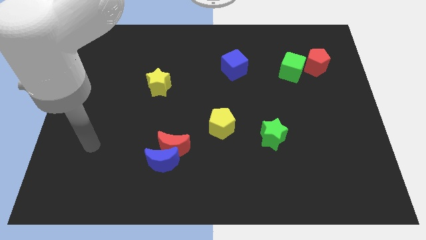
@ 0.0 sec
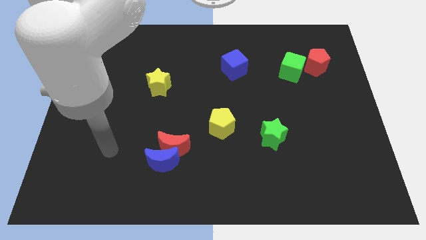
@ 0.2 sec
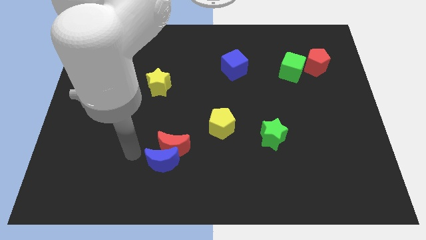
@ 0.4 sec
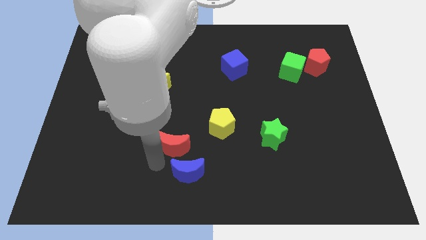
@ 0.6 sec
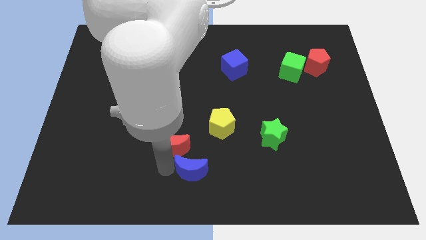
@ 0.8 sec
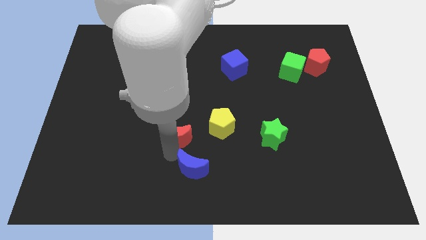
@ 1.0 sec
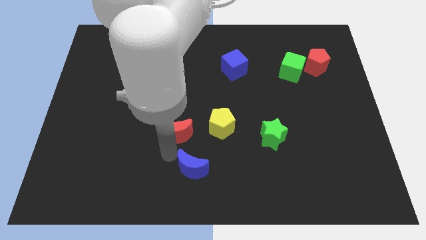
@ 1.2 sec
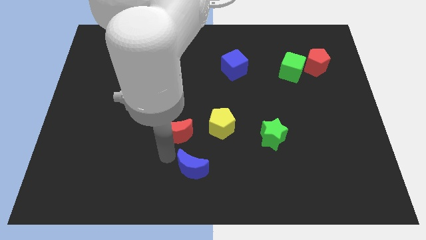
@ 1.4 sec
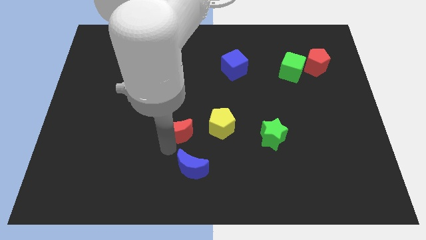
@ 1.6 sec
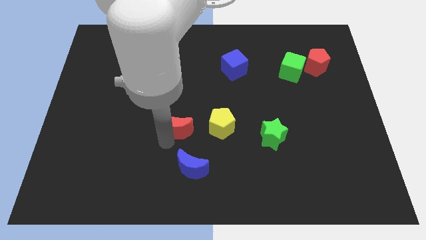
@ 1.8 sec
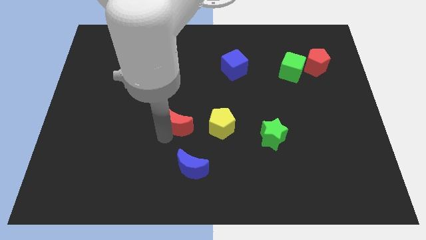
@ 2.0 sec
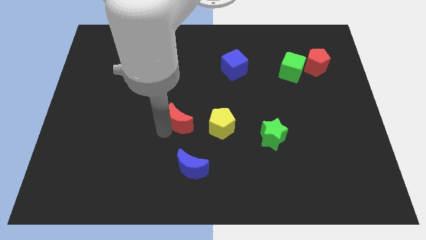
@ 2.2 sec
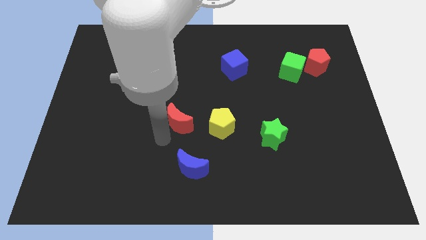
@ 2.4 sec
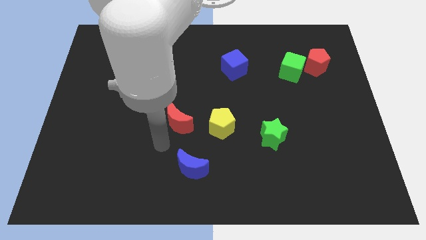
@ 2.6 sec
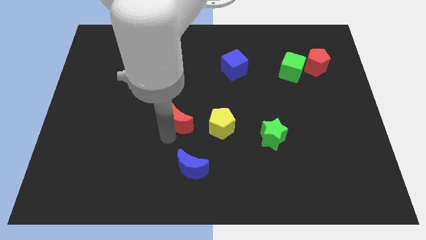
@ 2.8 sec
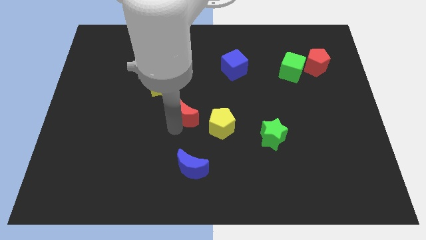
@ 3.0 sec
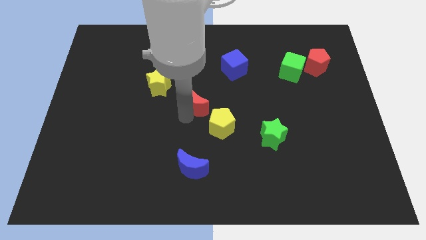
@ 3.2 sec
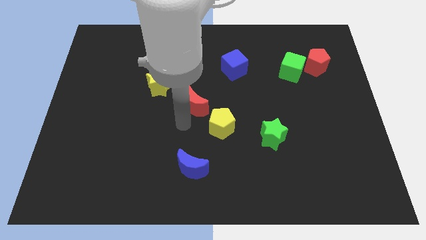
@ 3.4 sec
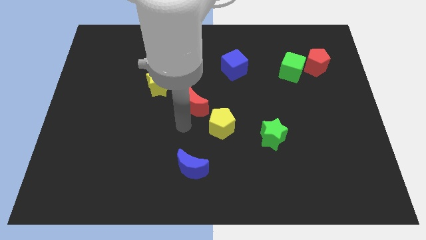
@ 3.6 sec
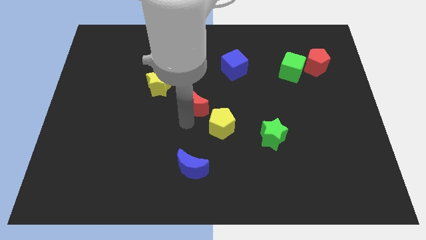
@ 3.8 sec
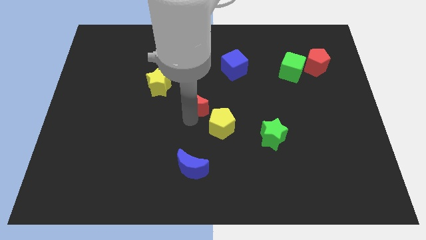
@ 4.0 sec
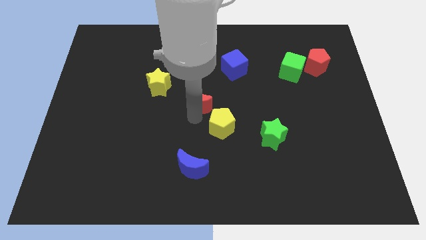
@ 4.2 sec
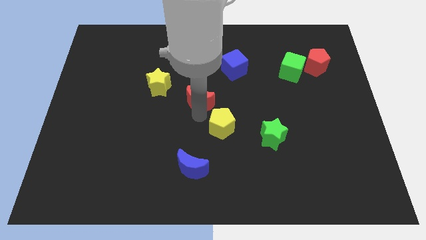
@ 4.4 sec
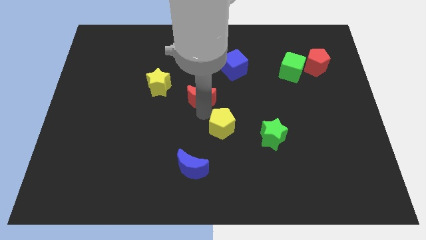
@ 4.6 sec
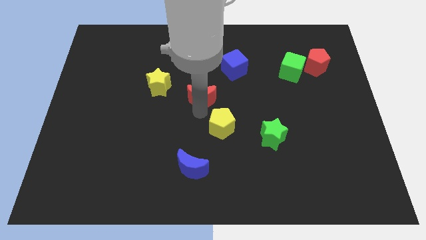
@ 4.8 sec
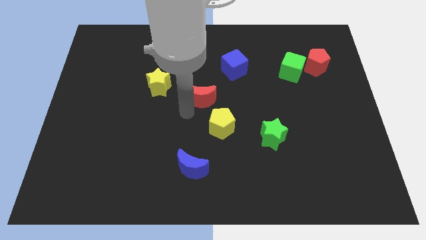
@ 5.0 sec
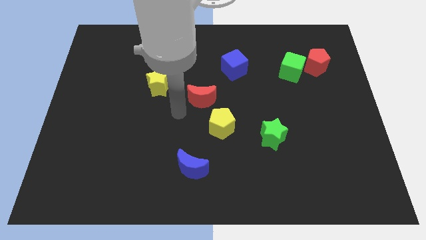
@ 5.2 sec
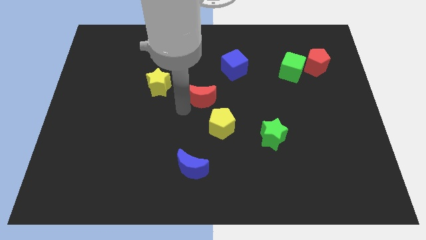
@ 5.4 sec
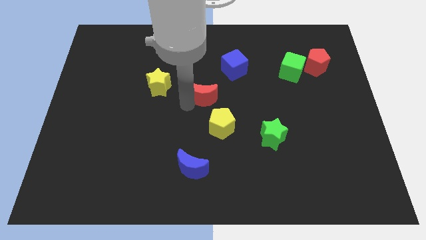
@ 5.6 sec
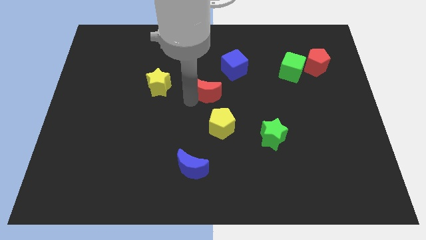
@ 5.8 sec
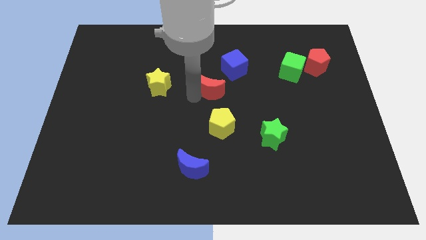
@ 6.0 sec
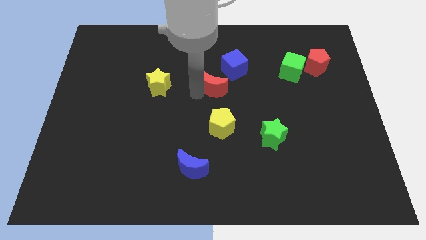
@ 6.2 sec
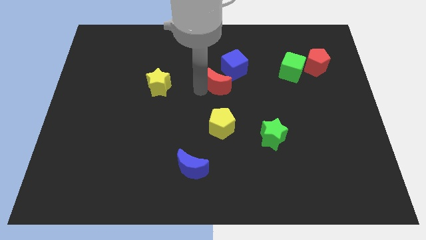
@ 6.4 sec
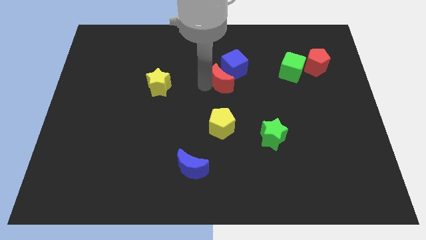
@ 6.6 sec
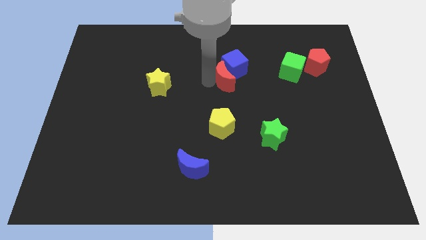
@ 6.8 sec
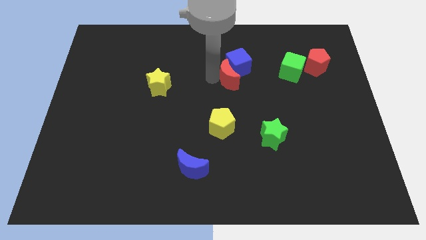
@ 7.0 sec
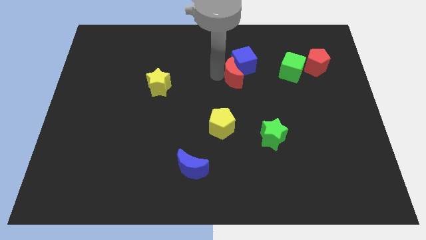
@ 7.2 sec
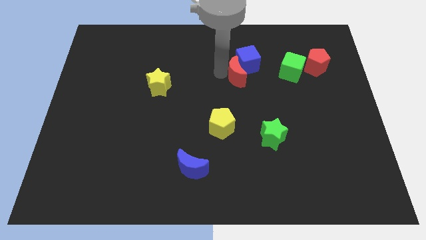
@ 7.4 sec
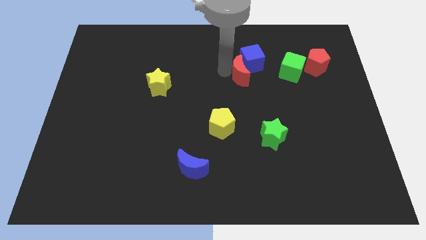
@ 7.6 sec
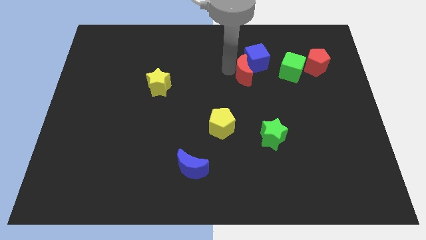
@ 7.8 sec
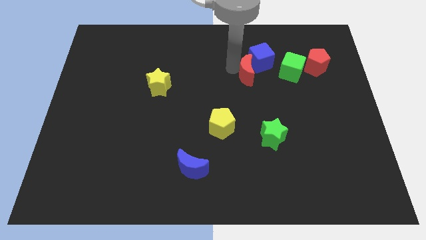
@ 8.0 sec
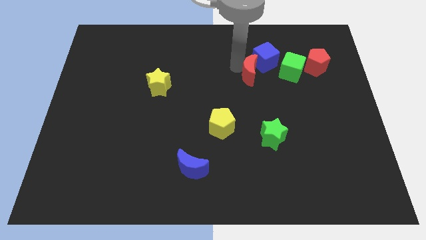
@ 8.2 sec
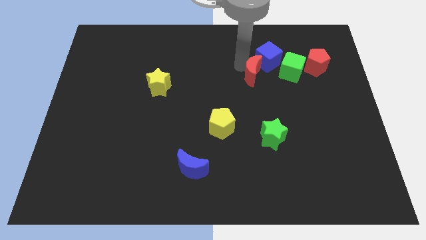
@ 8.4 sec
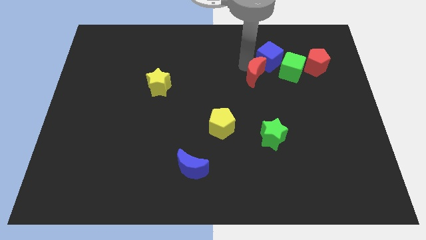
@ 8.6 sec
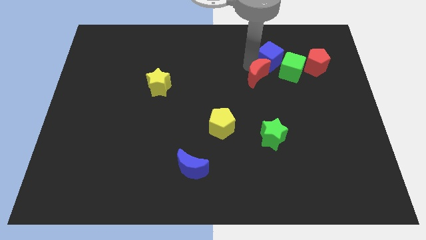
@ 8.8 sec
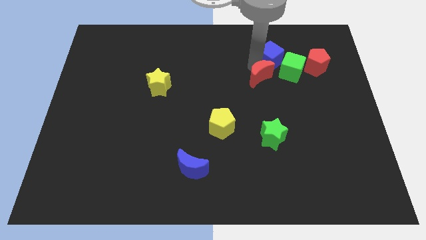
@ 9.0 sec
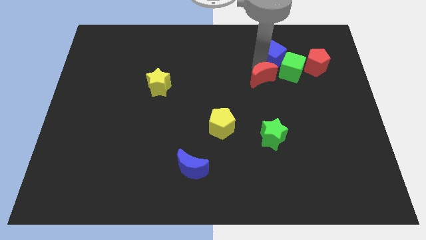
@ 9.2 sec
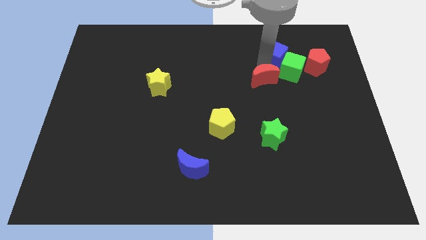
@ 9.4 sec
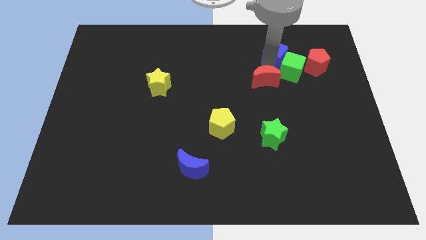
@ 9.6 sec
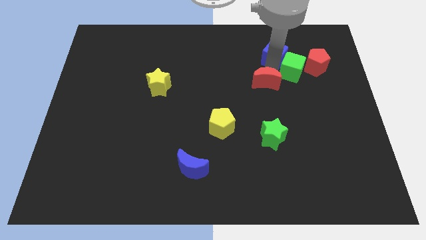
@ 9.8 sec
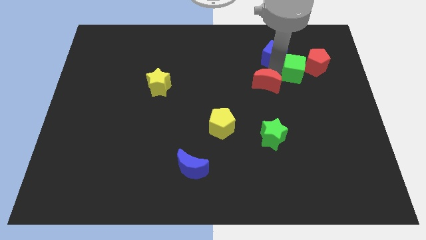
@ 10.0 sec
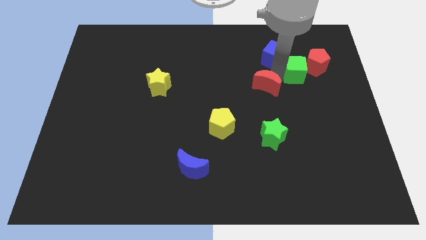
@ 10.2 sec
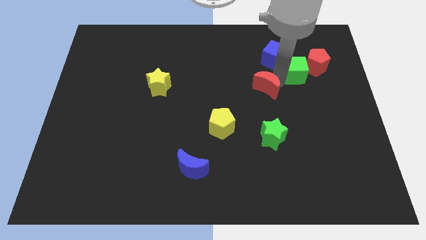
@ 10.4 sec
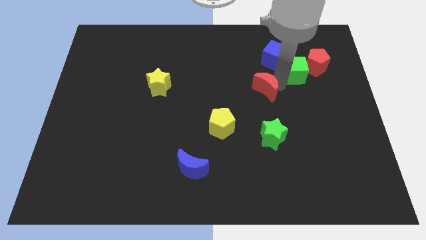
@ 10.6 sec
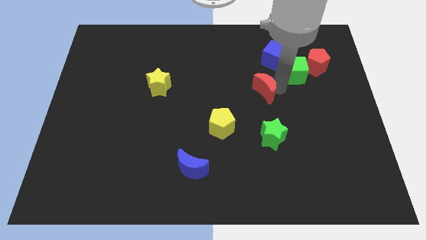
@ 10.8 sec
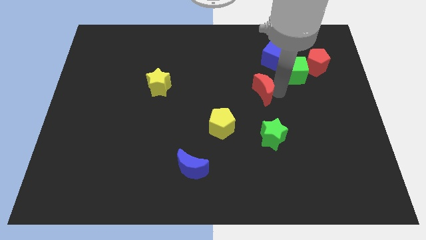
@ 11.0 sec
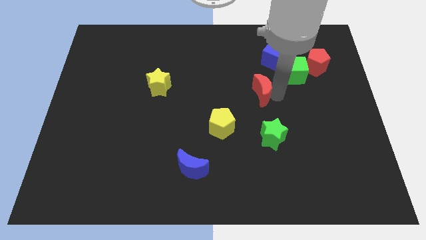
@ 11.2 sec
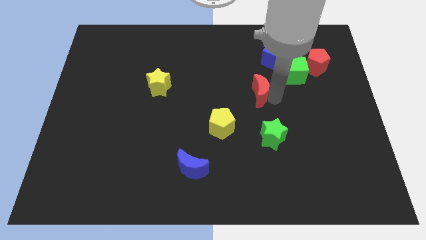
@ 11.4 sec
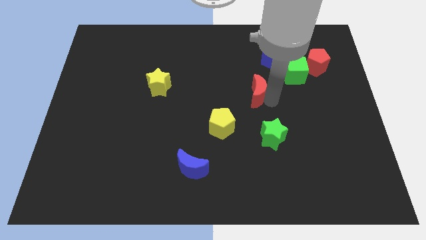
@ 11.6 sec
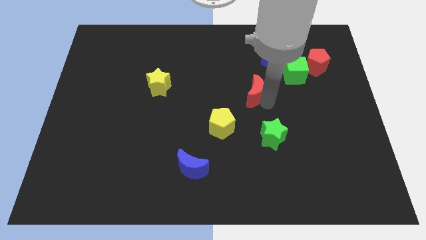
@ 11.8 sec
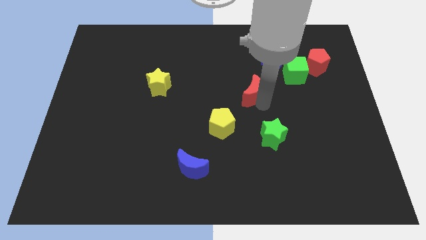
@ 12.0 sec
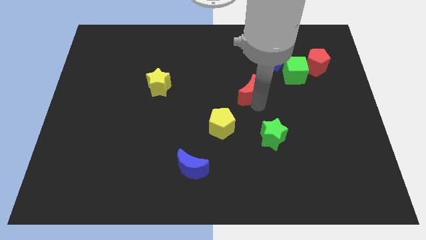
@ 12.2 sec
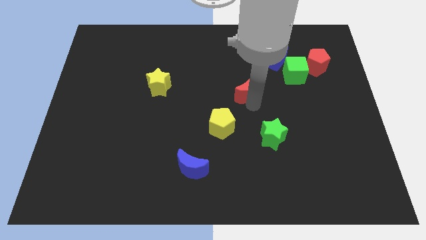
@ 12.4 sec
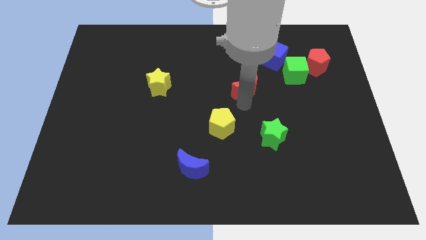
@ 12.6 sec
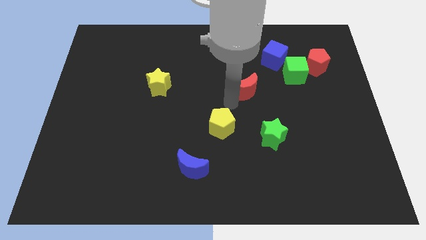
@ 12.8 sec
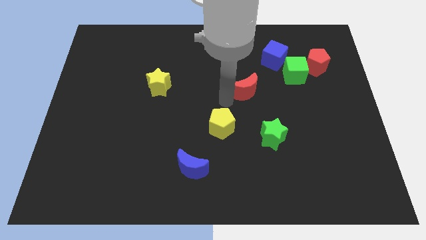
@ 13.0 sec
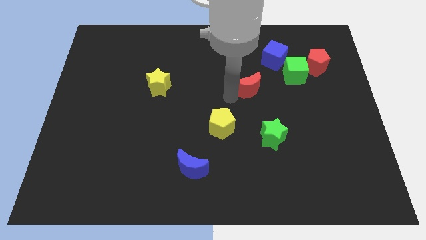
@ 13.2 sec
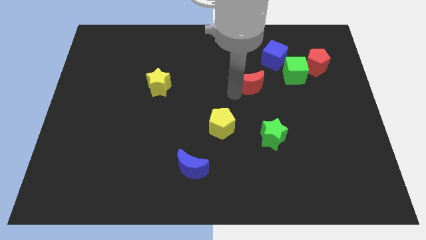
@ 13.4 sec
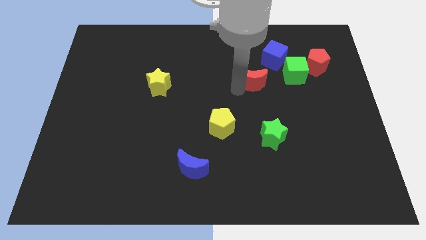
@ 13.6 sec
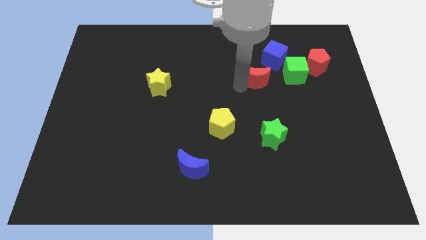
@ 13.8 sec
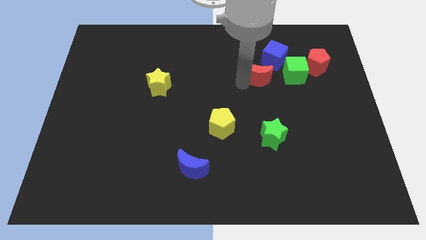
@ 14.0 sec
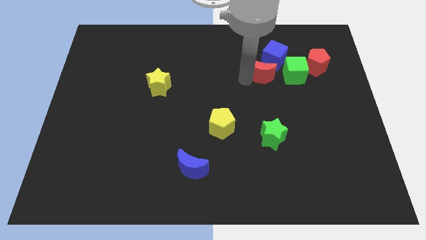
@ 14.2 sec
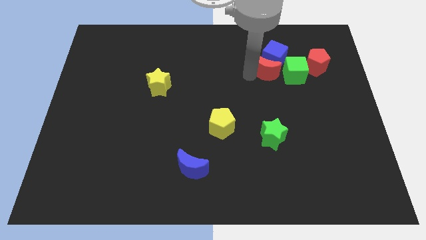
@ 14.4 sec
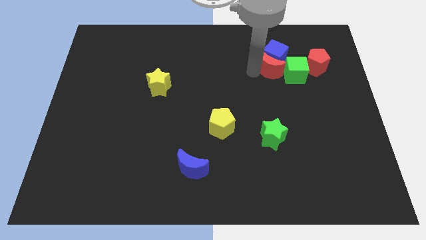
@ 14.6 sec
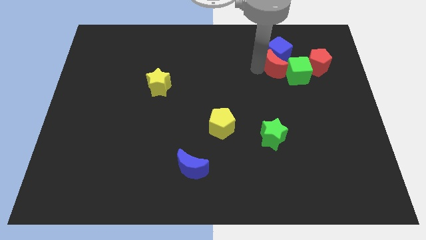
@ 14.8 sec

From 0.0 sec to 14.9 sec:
put the red moon close to the green cube
